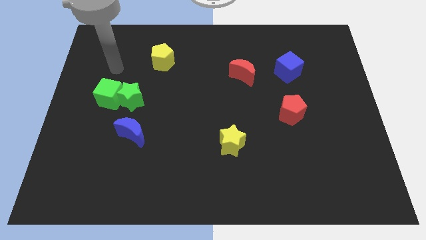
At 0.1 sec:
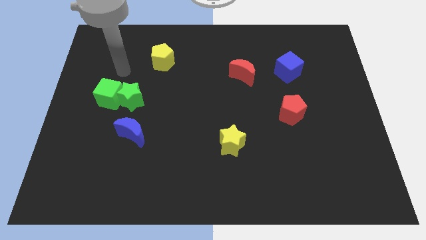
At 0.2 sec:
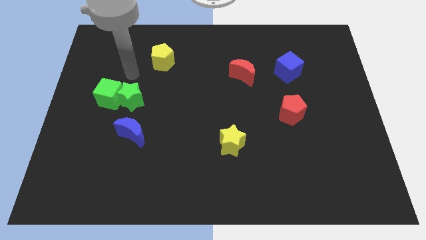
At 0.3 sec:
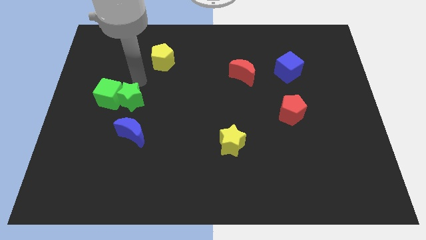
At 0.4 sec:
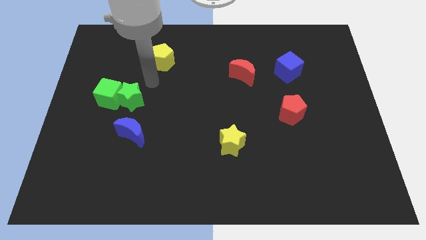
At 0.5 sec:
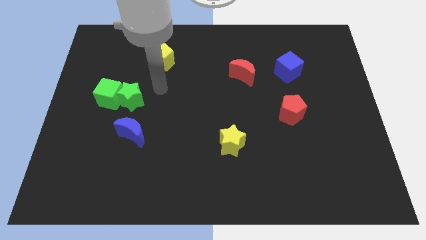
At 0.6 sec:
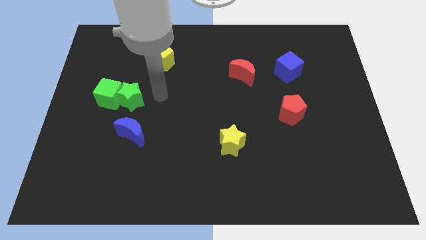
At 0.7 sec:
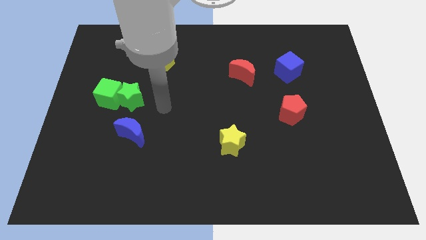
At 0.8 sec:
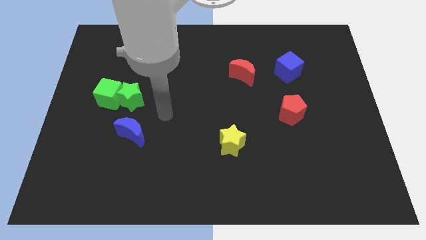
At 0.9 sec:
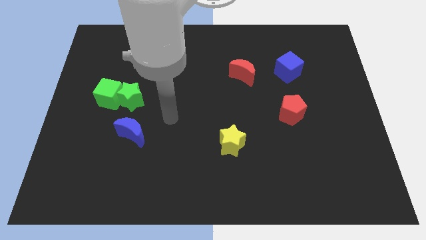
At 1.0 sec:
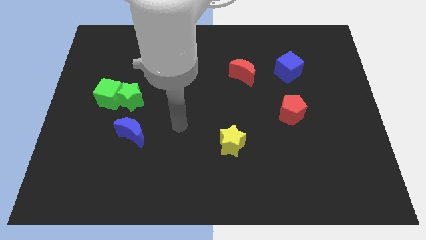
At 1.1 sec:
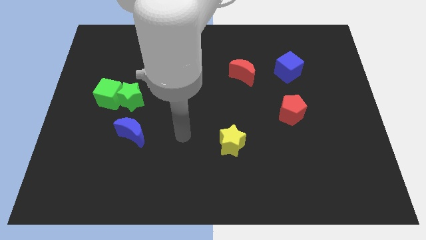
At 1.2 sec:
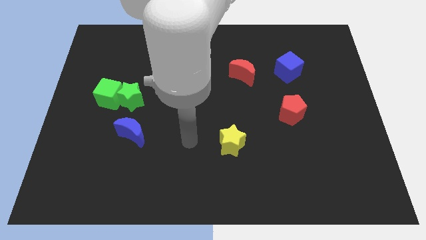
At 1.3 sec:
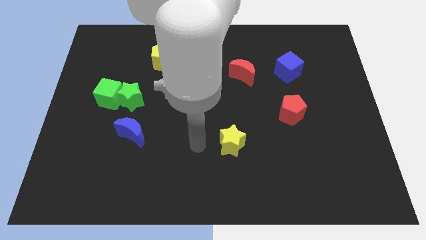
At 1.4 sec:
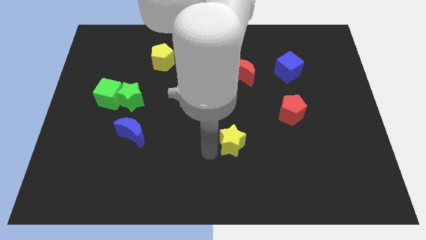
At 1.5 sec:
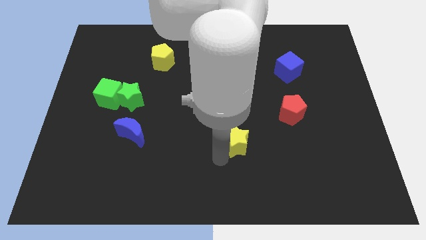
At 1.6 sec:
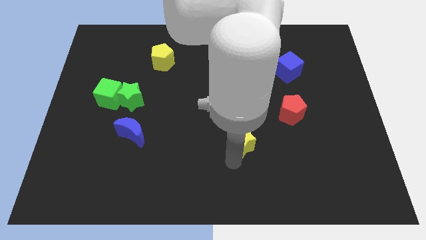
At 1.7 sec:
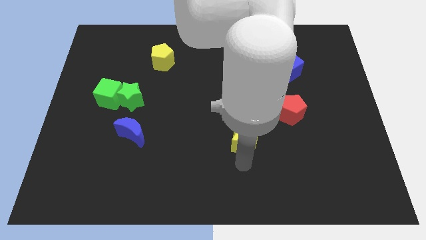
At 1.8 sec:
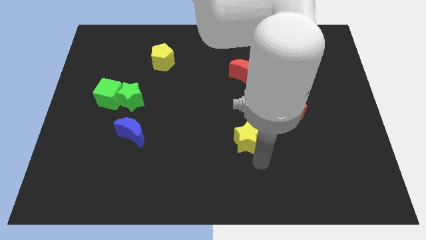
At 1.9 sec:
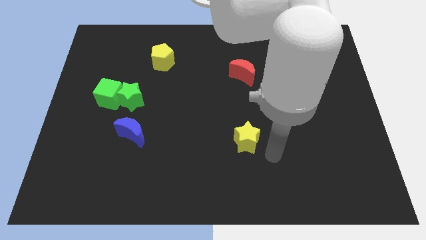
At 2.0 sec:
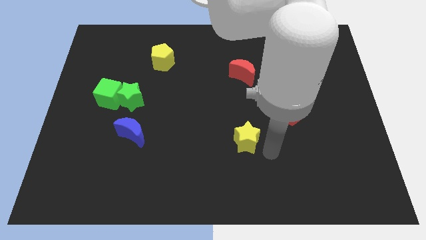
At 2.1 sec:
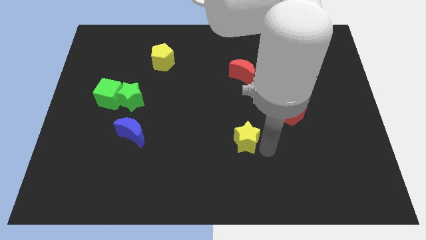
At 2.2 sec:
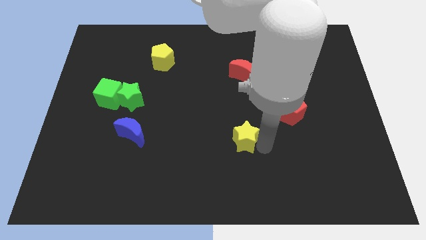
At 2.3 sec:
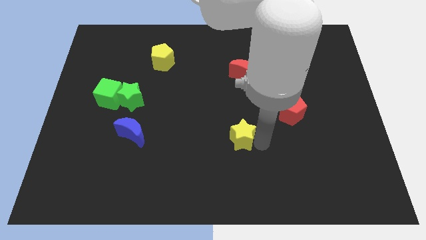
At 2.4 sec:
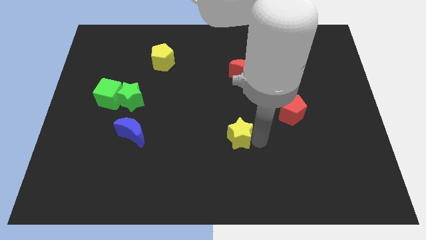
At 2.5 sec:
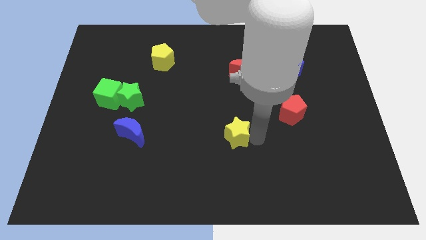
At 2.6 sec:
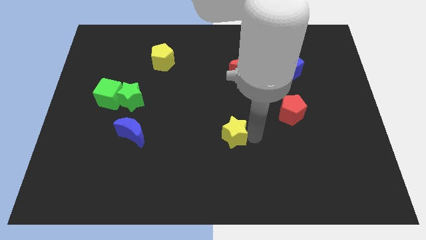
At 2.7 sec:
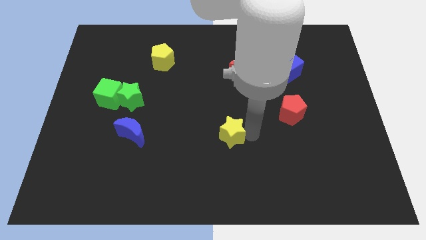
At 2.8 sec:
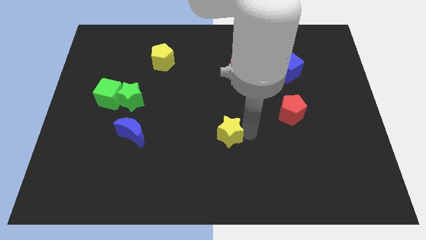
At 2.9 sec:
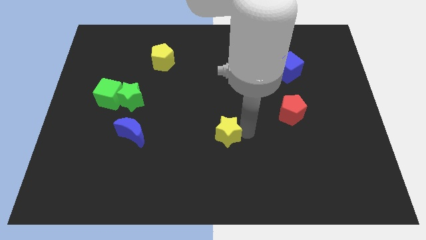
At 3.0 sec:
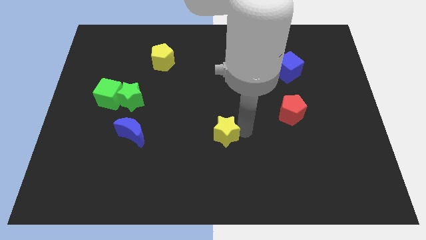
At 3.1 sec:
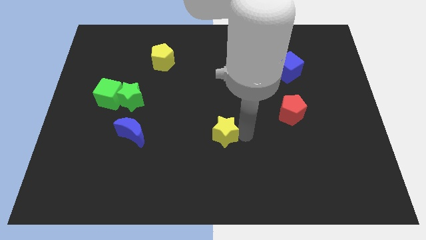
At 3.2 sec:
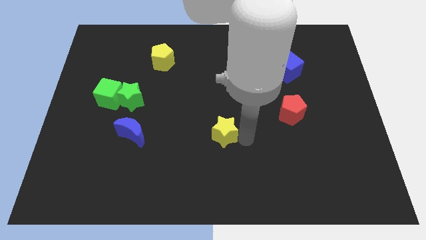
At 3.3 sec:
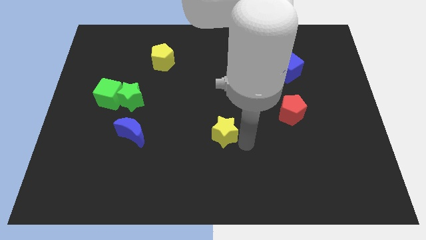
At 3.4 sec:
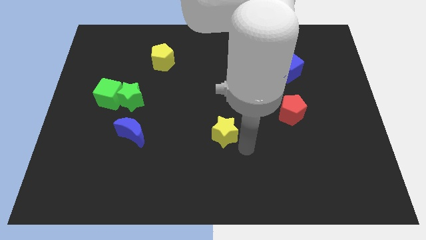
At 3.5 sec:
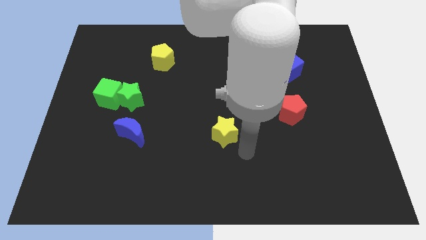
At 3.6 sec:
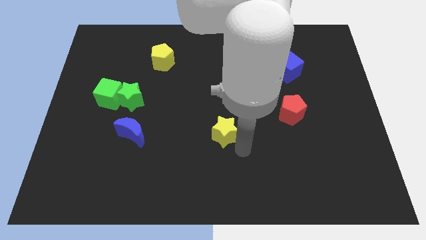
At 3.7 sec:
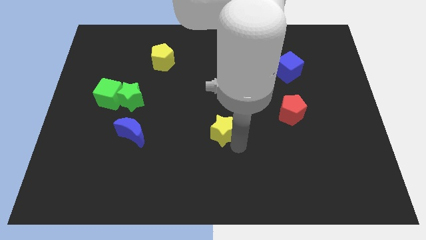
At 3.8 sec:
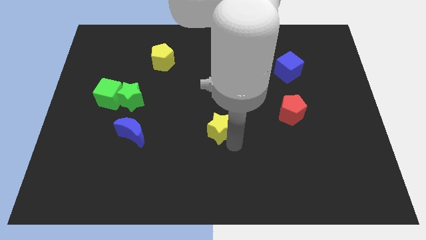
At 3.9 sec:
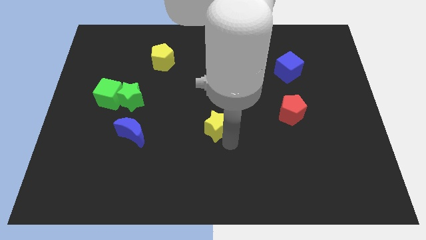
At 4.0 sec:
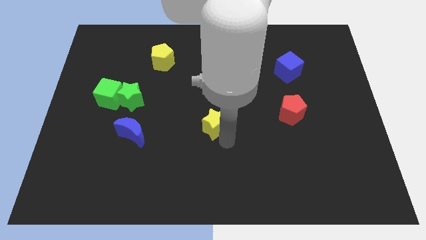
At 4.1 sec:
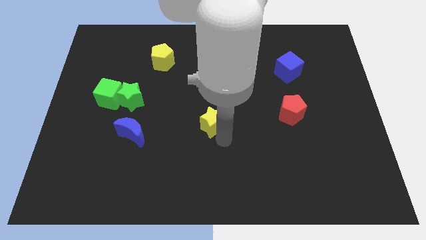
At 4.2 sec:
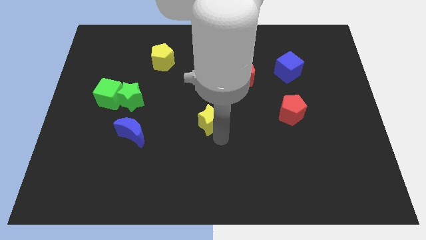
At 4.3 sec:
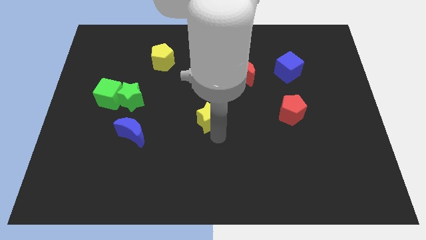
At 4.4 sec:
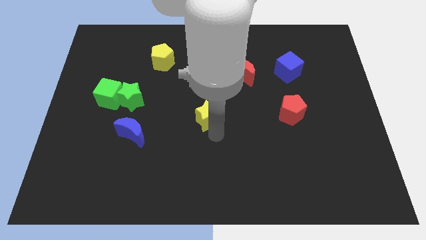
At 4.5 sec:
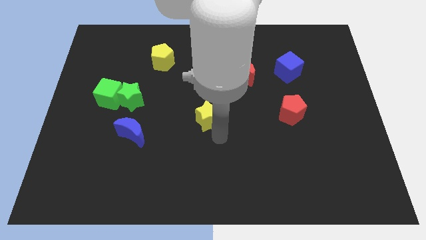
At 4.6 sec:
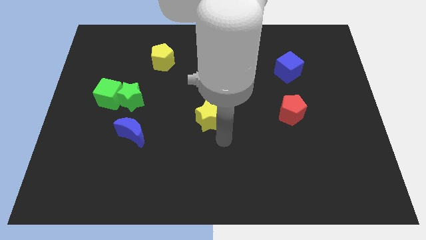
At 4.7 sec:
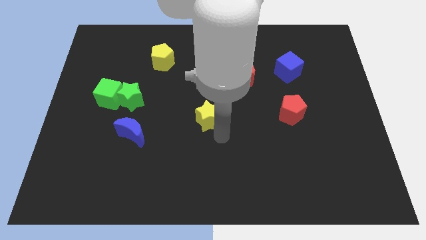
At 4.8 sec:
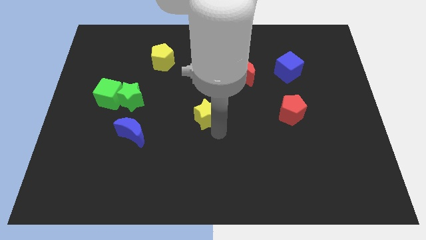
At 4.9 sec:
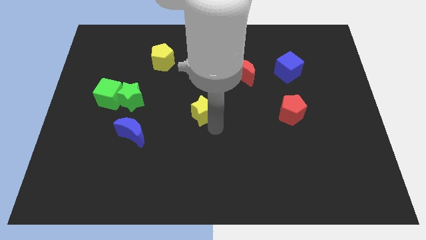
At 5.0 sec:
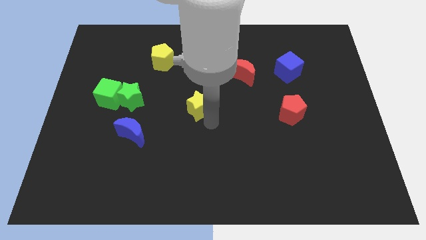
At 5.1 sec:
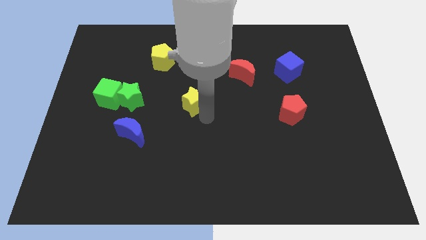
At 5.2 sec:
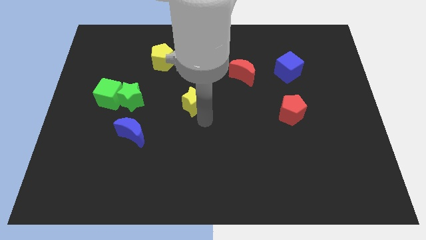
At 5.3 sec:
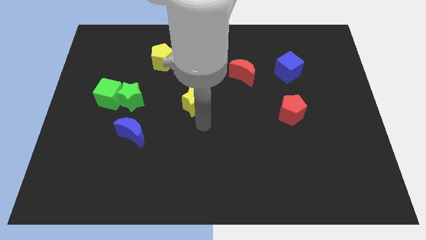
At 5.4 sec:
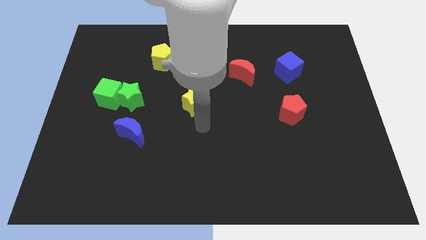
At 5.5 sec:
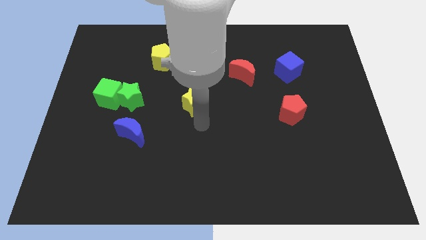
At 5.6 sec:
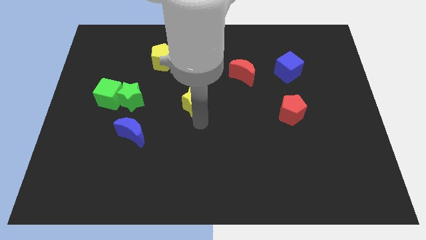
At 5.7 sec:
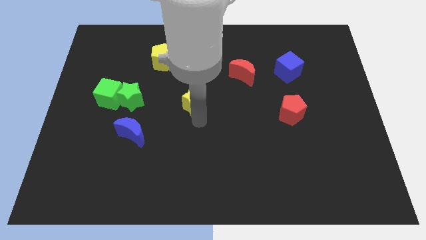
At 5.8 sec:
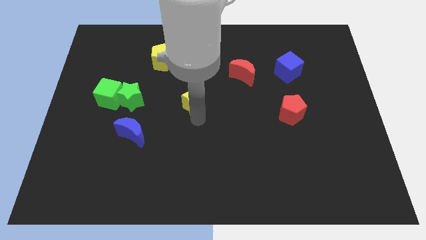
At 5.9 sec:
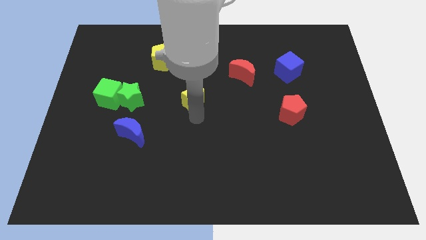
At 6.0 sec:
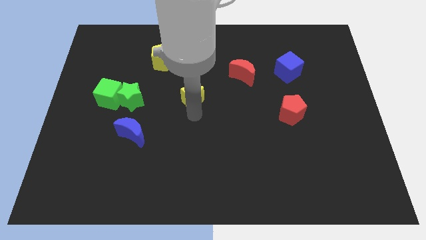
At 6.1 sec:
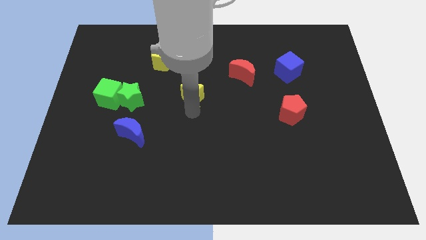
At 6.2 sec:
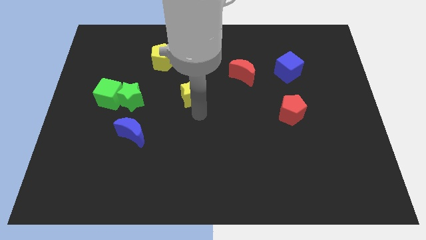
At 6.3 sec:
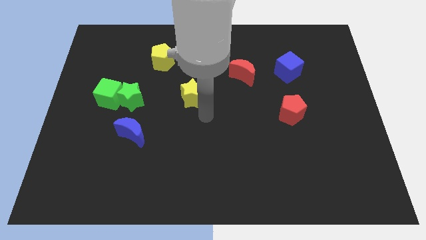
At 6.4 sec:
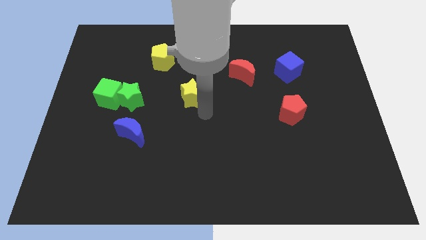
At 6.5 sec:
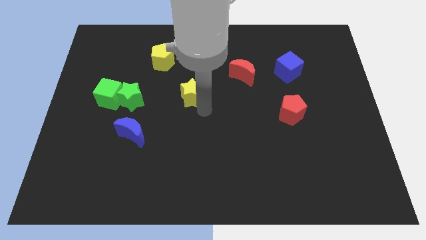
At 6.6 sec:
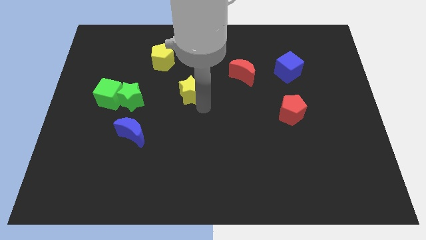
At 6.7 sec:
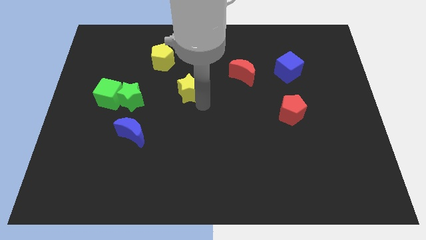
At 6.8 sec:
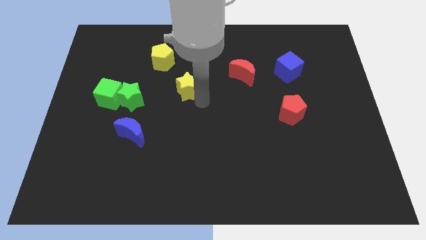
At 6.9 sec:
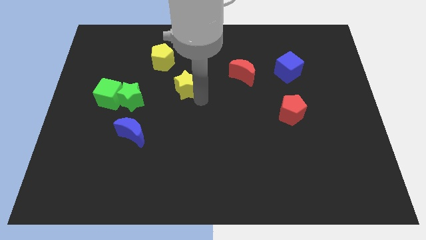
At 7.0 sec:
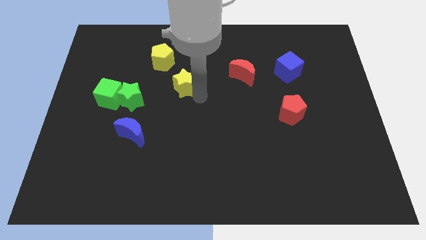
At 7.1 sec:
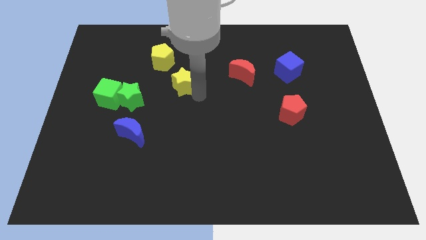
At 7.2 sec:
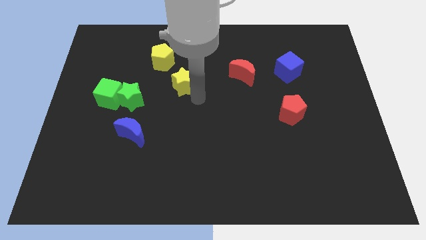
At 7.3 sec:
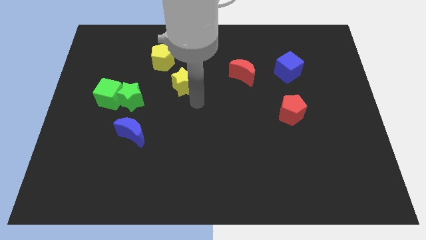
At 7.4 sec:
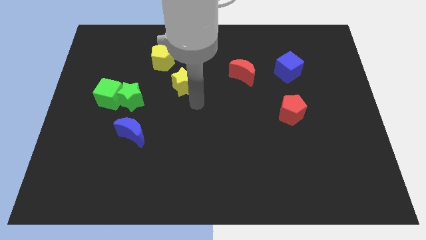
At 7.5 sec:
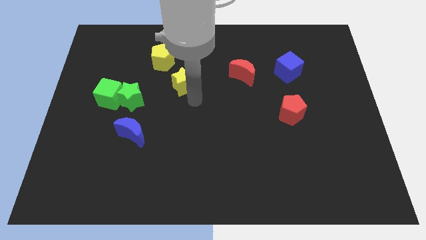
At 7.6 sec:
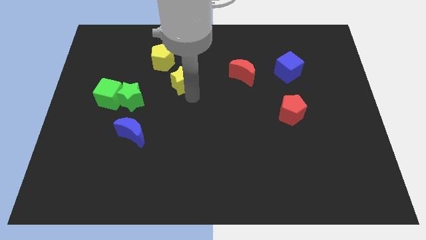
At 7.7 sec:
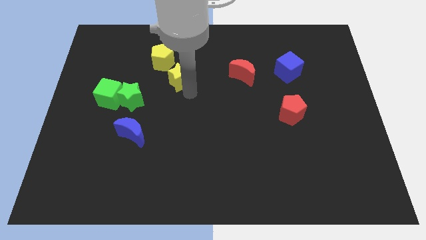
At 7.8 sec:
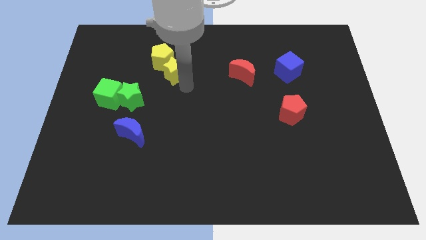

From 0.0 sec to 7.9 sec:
put the yellow star towards the yellow pentagon

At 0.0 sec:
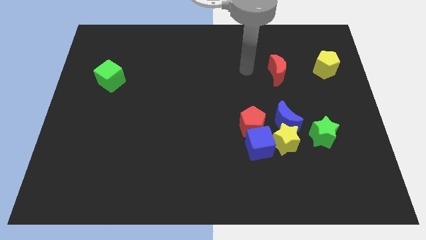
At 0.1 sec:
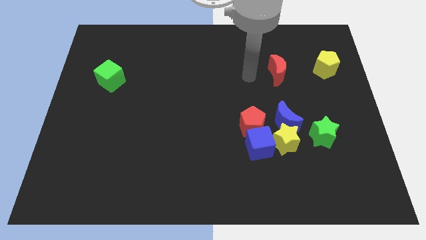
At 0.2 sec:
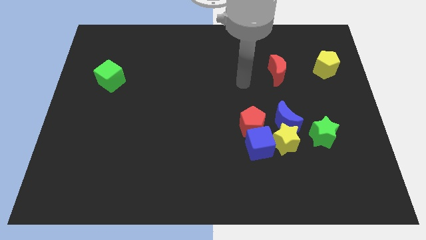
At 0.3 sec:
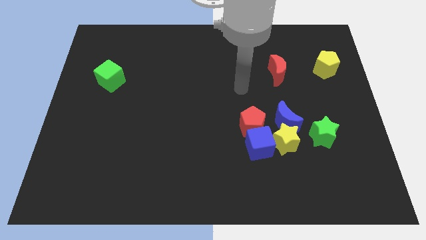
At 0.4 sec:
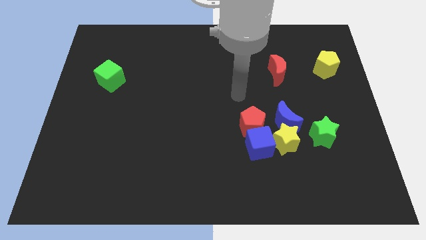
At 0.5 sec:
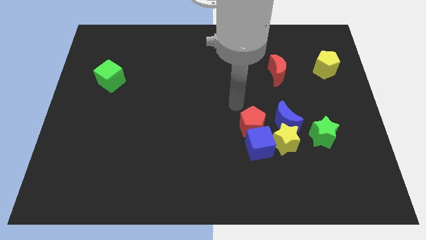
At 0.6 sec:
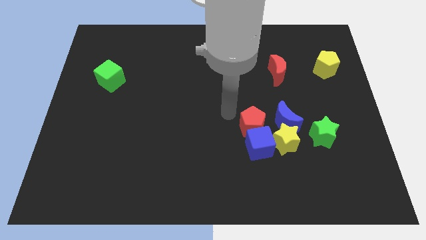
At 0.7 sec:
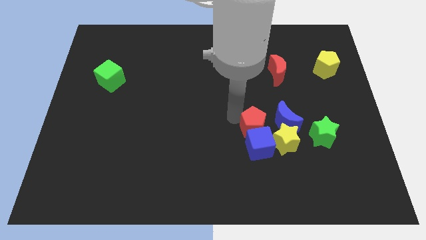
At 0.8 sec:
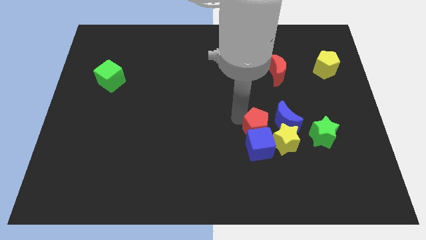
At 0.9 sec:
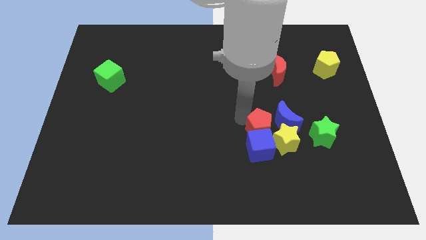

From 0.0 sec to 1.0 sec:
push the red pentagon next to the yellow star
